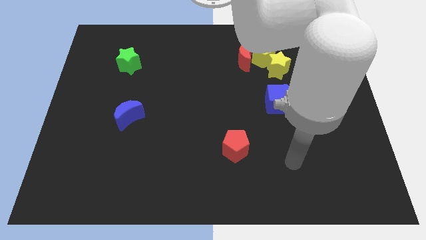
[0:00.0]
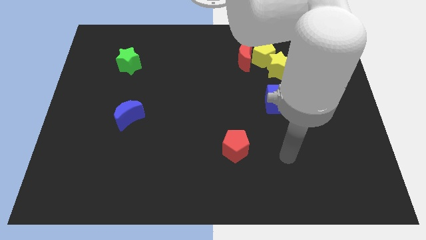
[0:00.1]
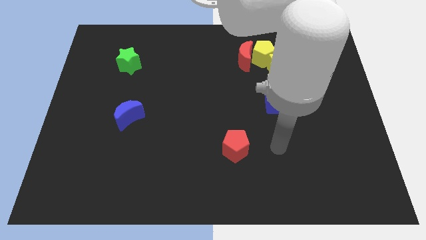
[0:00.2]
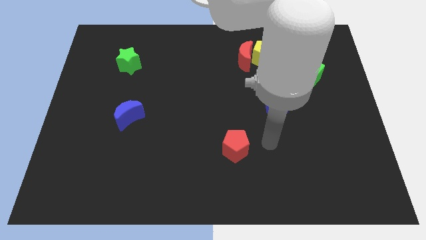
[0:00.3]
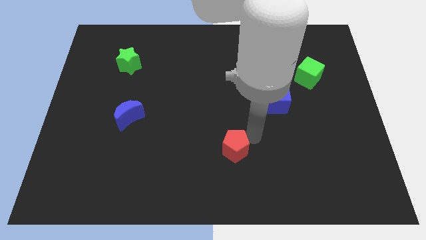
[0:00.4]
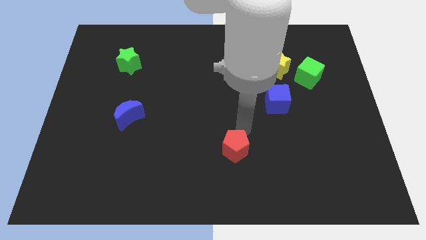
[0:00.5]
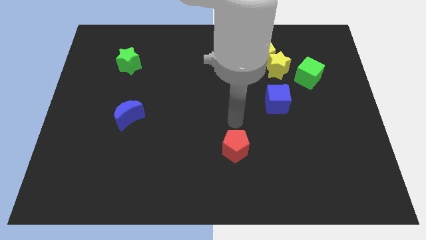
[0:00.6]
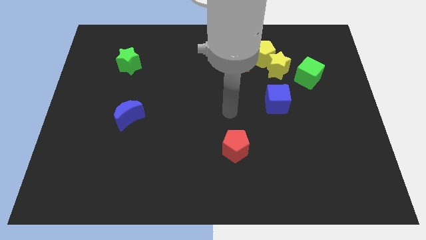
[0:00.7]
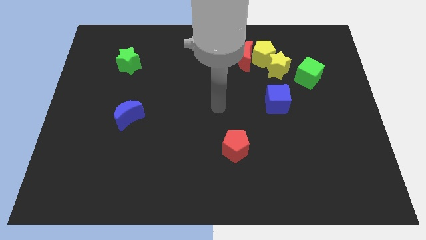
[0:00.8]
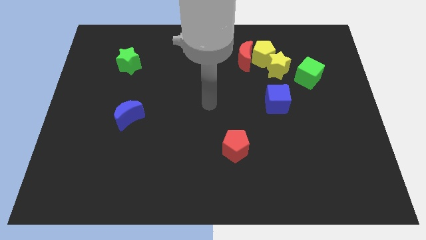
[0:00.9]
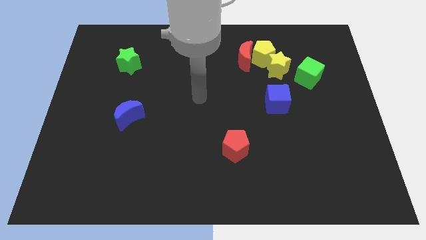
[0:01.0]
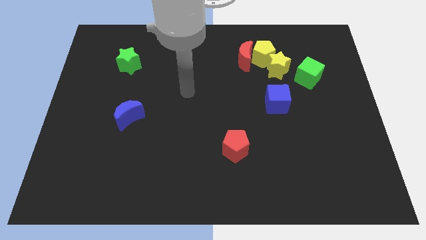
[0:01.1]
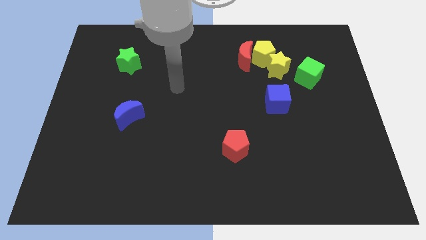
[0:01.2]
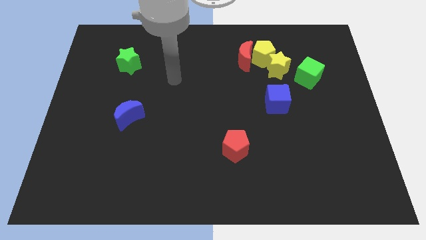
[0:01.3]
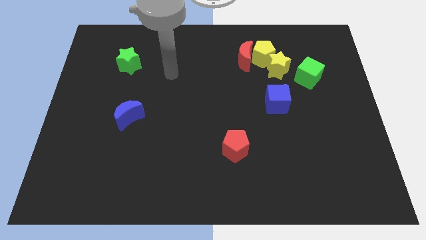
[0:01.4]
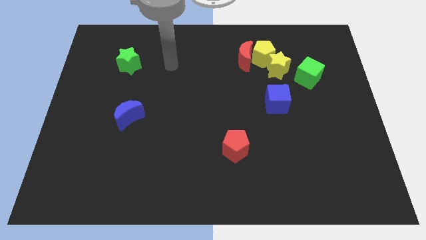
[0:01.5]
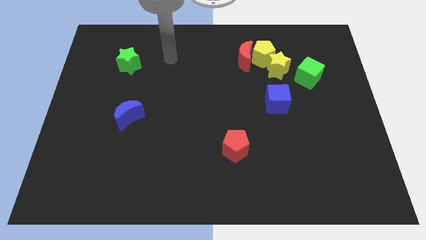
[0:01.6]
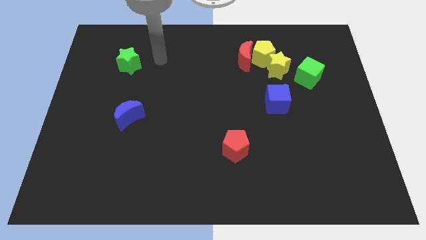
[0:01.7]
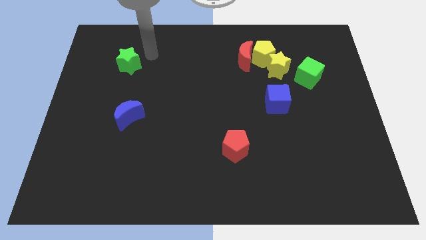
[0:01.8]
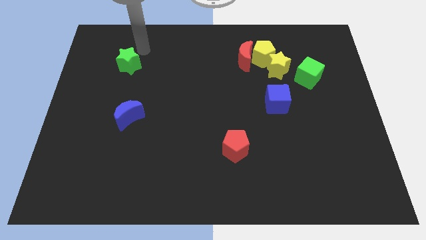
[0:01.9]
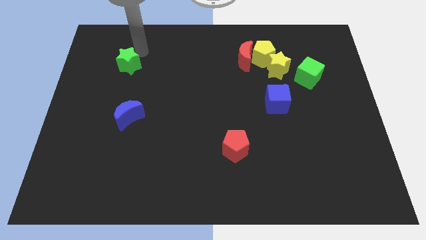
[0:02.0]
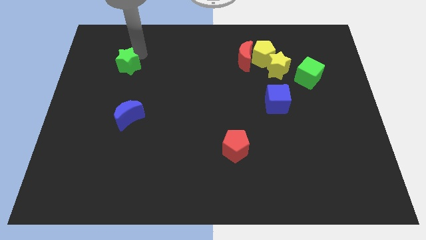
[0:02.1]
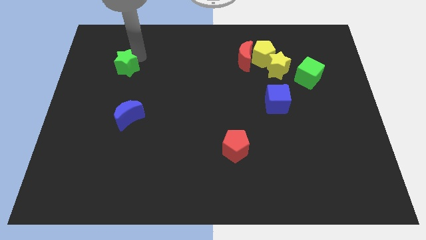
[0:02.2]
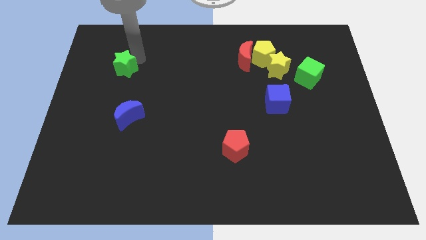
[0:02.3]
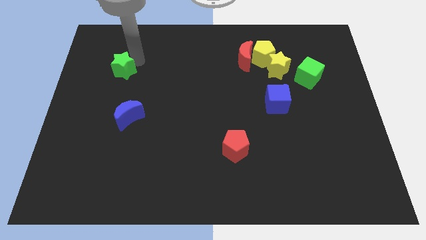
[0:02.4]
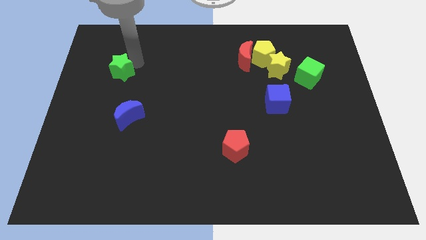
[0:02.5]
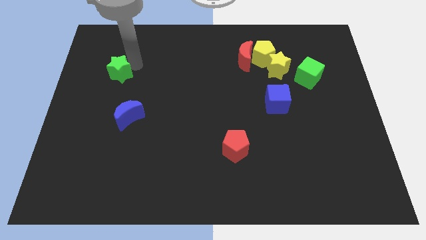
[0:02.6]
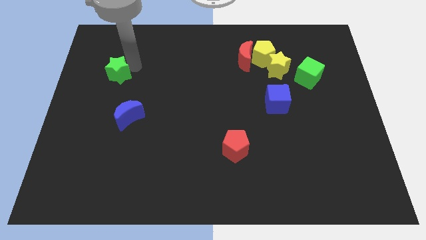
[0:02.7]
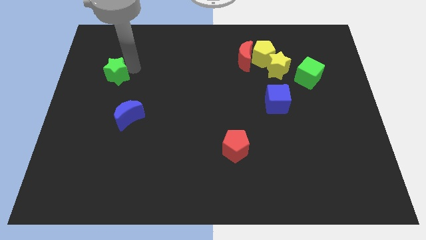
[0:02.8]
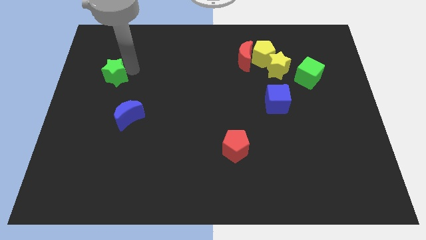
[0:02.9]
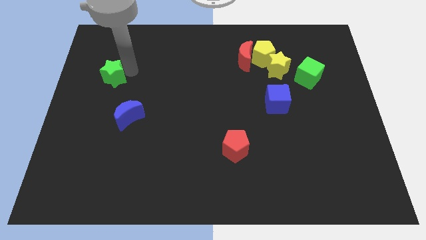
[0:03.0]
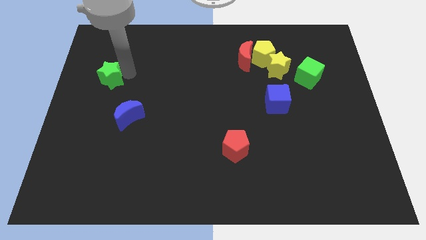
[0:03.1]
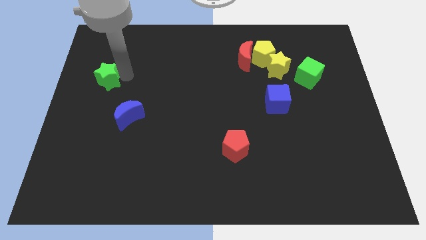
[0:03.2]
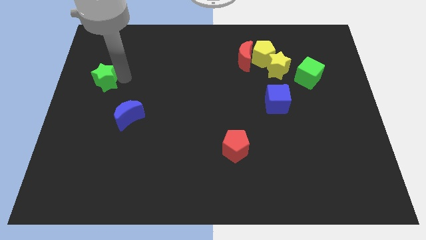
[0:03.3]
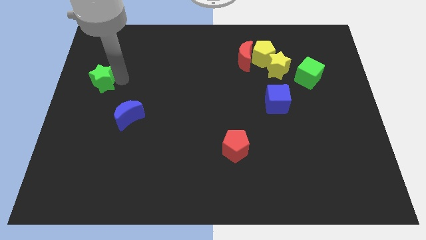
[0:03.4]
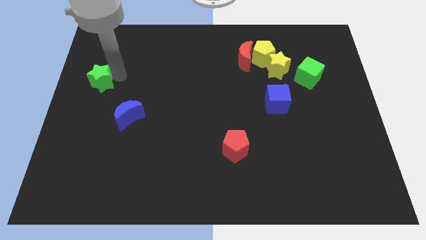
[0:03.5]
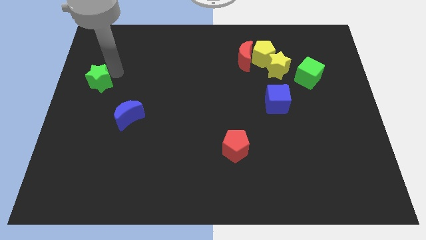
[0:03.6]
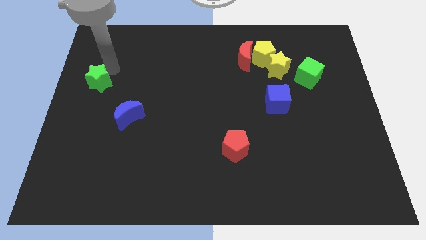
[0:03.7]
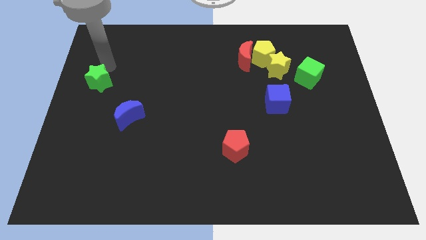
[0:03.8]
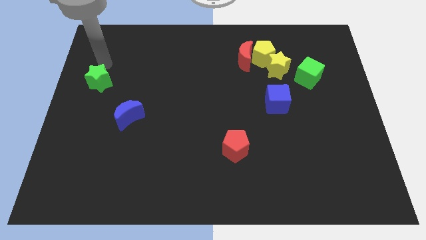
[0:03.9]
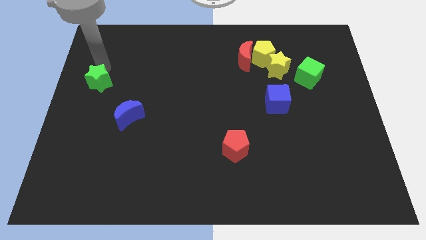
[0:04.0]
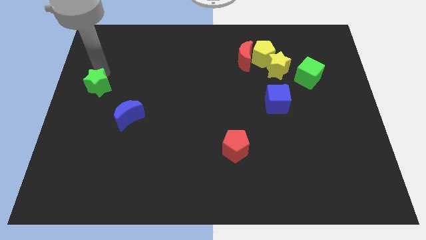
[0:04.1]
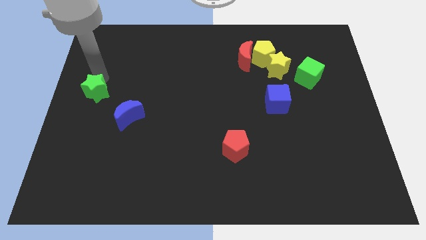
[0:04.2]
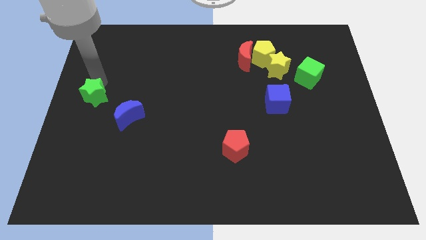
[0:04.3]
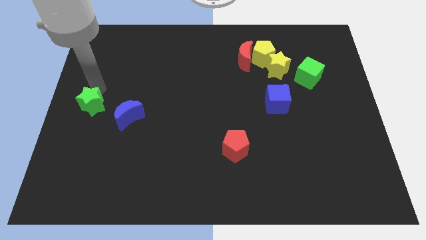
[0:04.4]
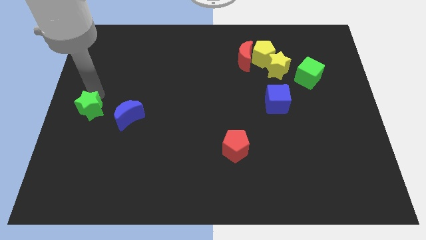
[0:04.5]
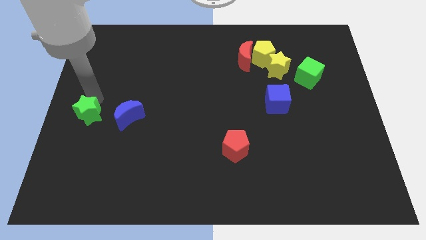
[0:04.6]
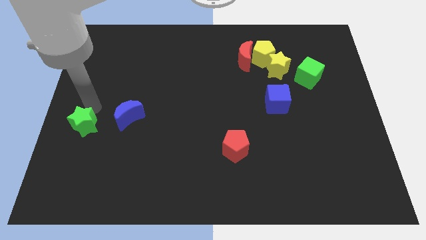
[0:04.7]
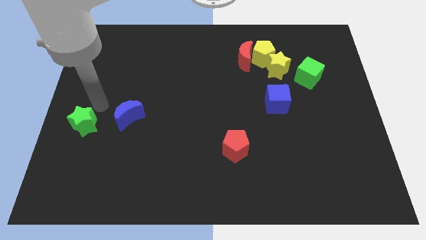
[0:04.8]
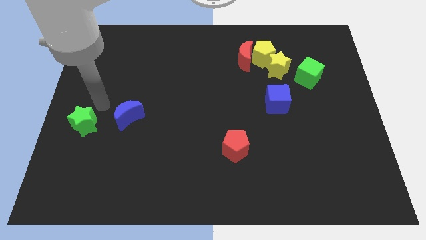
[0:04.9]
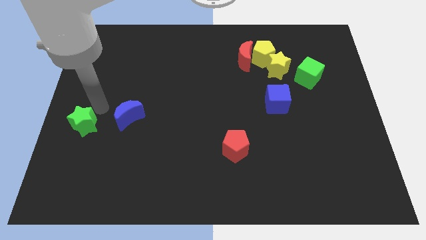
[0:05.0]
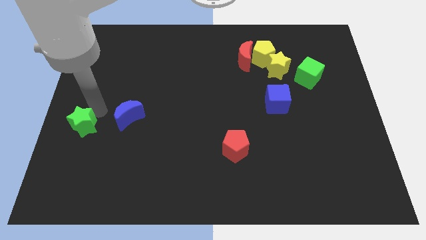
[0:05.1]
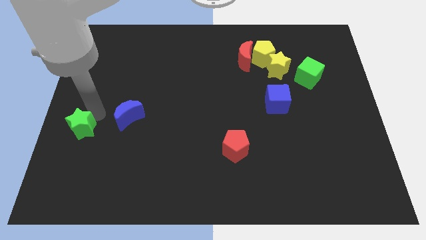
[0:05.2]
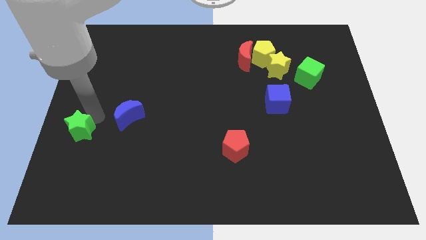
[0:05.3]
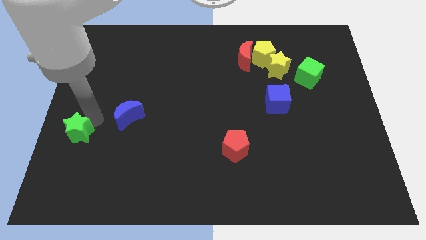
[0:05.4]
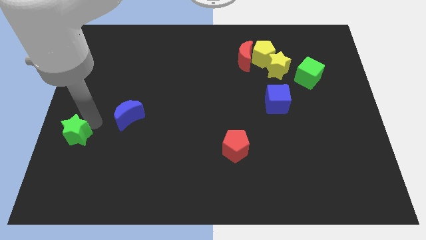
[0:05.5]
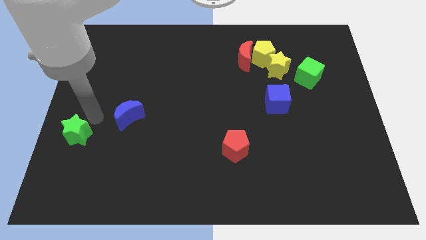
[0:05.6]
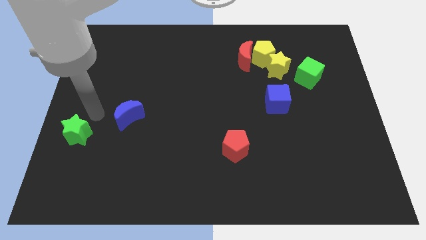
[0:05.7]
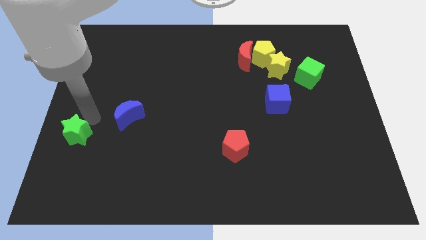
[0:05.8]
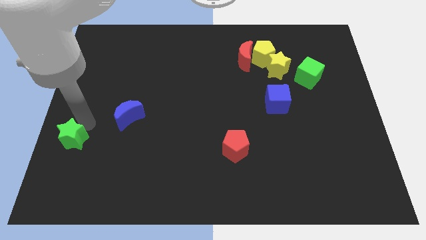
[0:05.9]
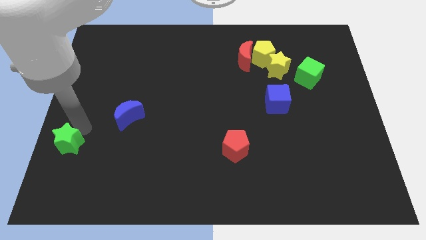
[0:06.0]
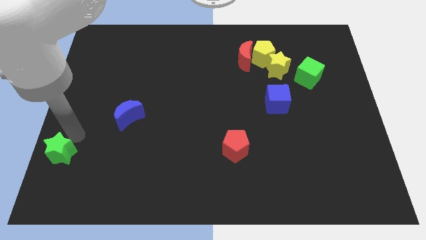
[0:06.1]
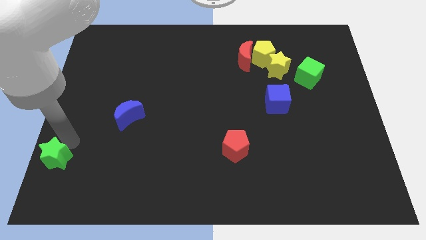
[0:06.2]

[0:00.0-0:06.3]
put the green star to the bottom left of the board
